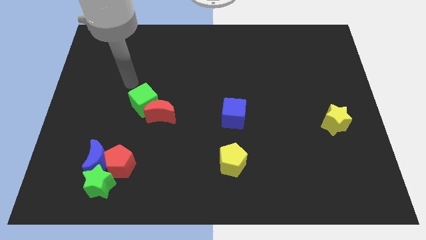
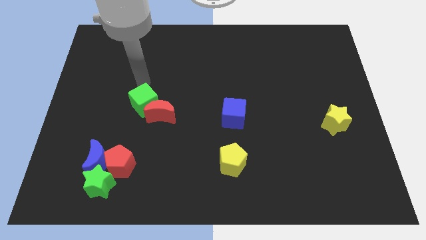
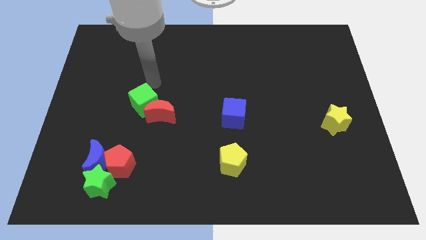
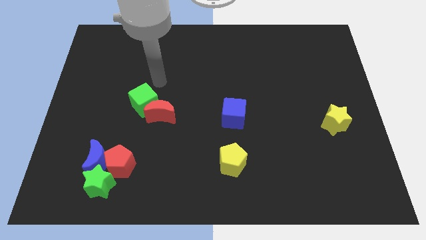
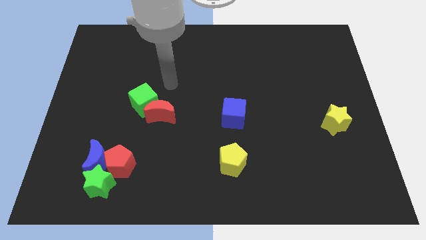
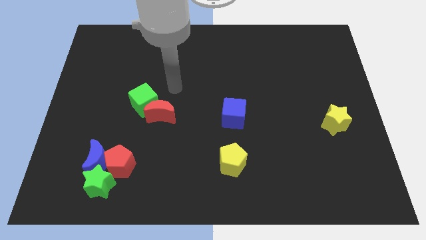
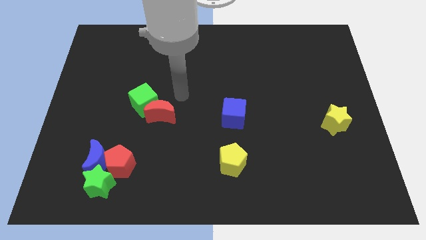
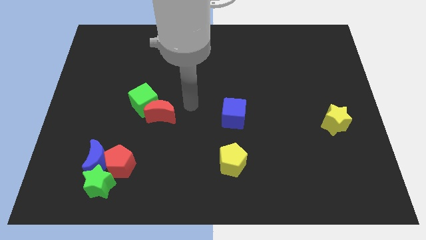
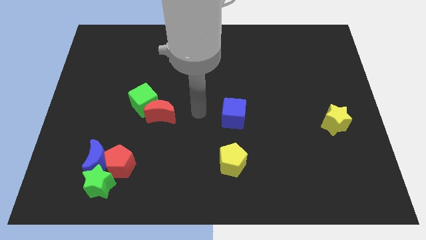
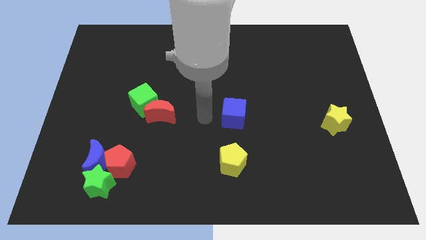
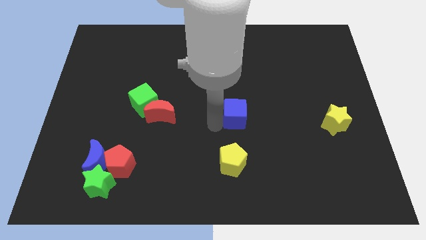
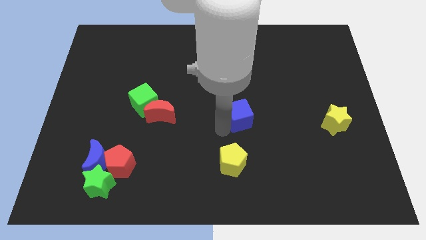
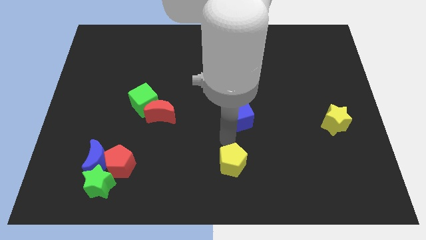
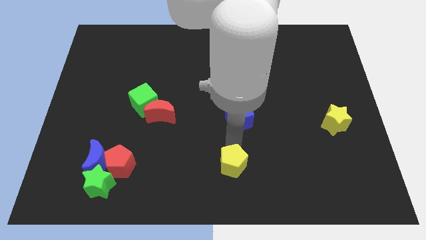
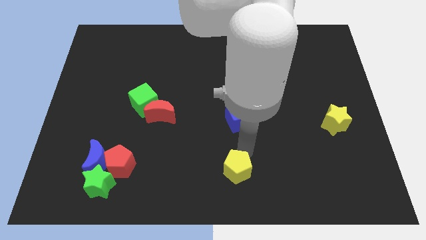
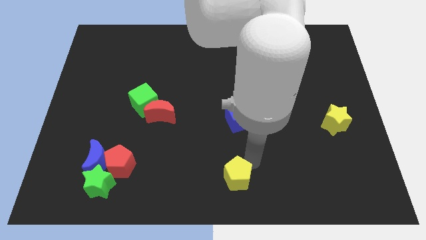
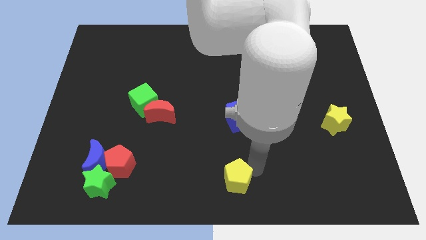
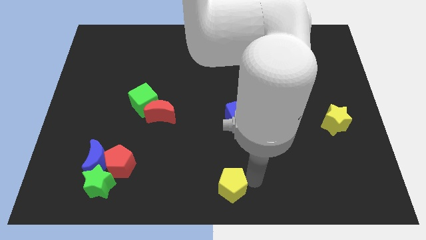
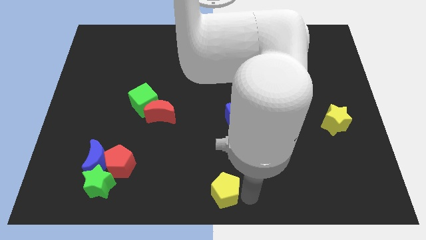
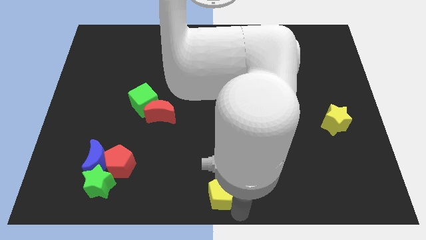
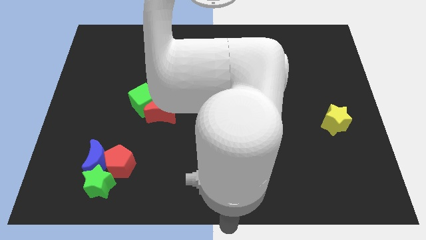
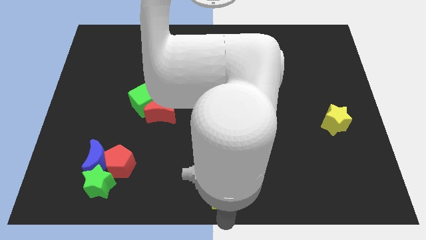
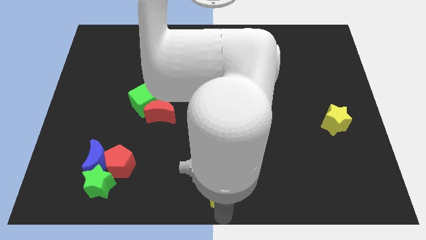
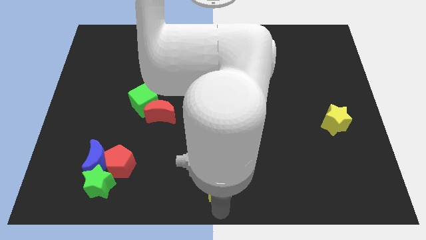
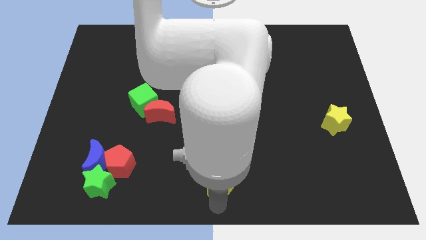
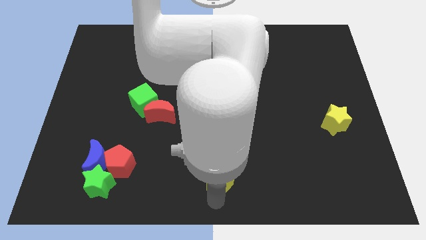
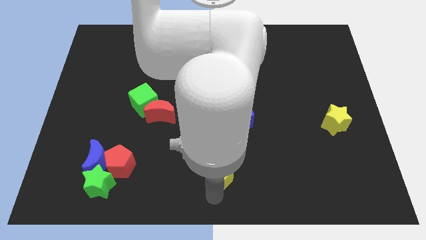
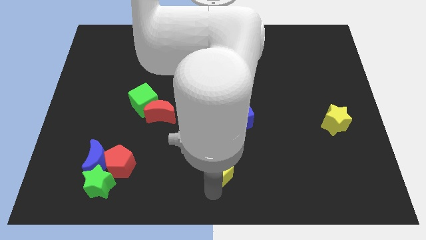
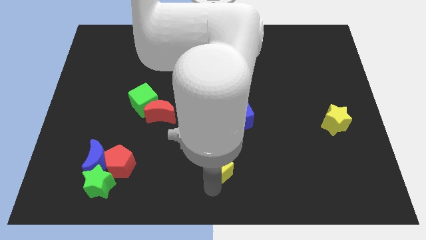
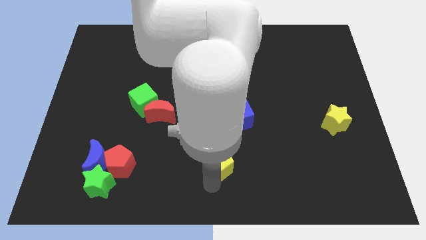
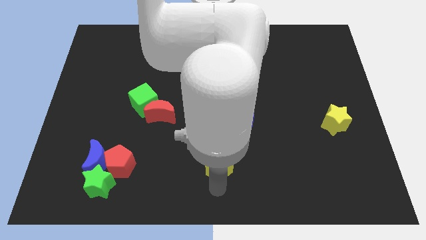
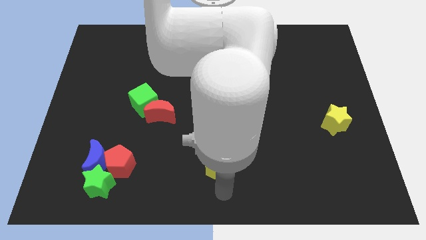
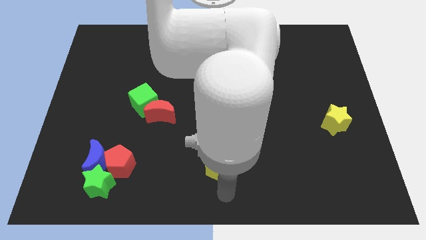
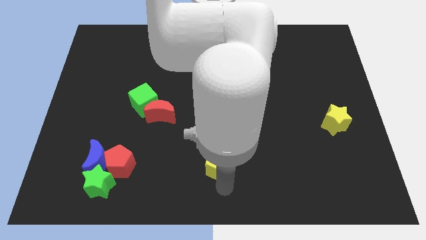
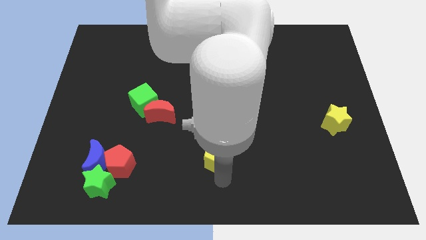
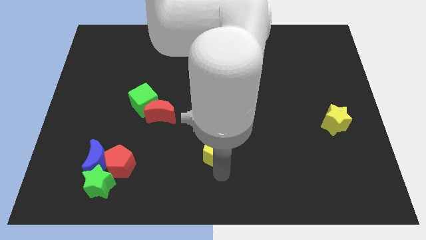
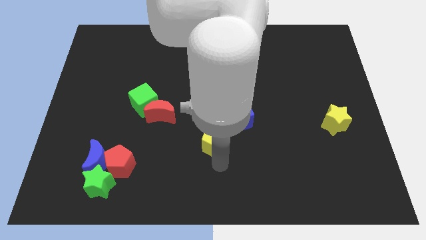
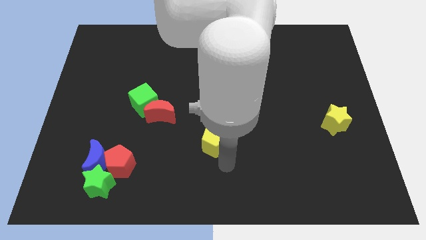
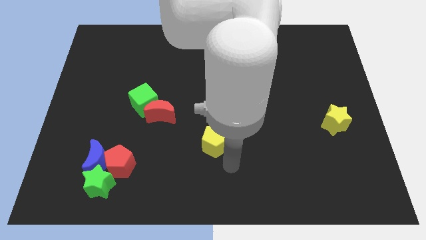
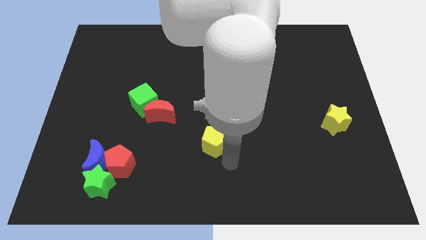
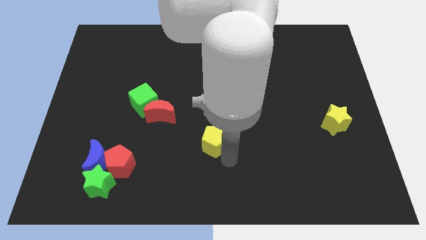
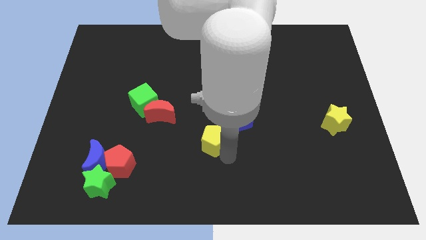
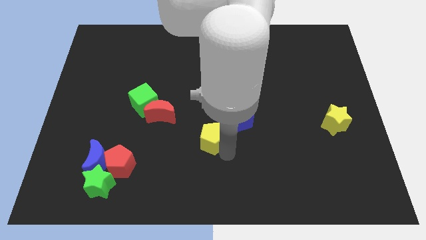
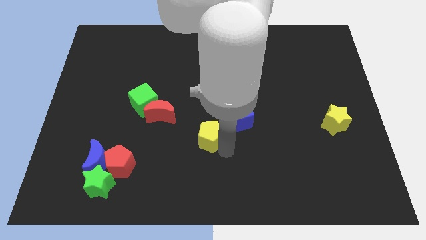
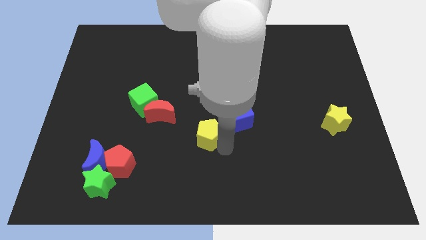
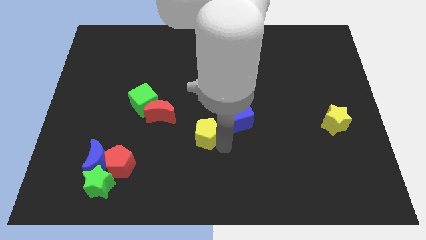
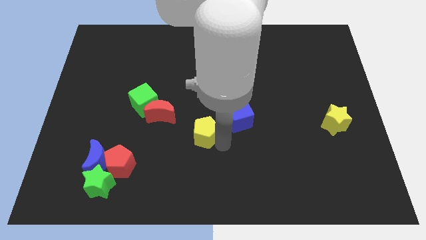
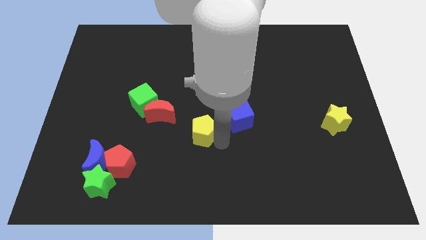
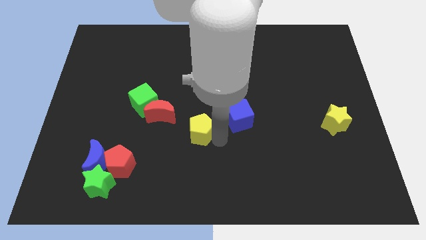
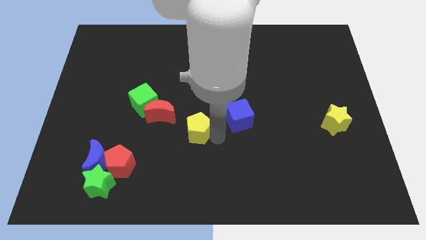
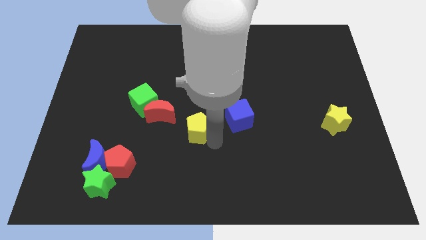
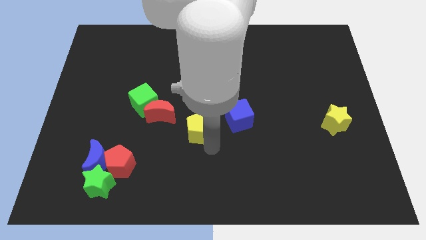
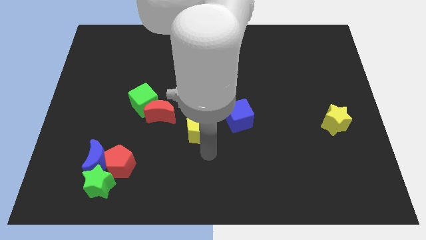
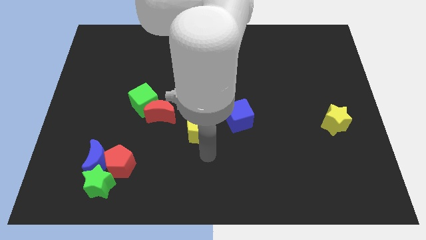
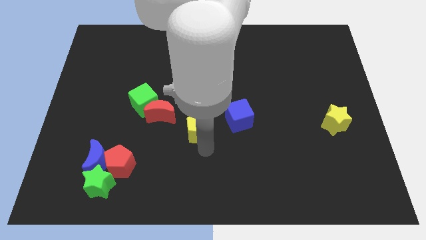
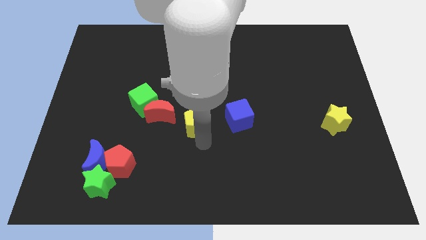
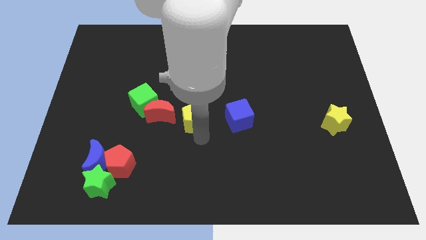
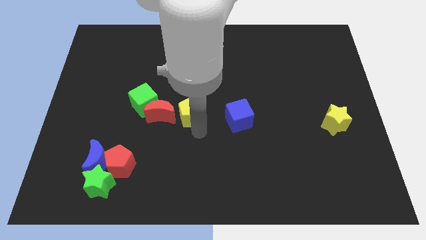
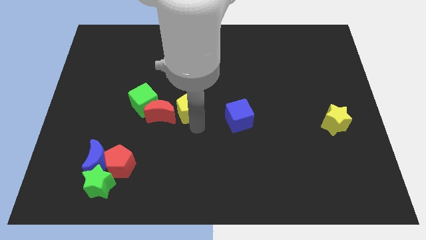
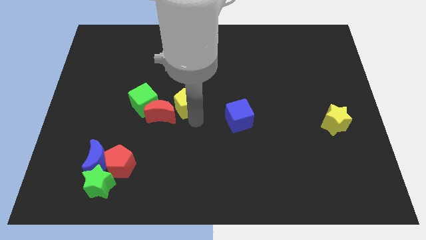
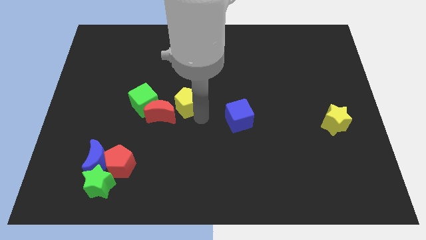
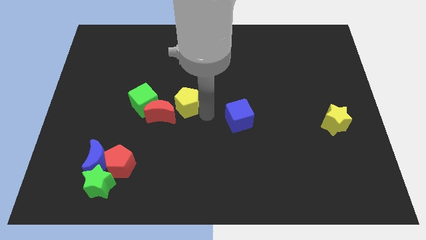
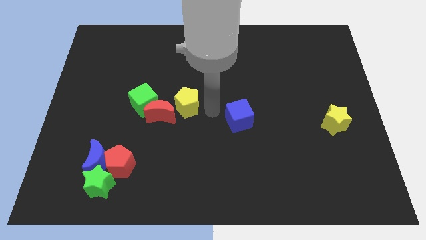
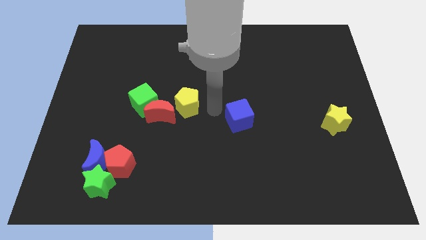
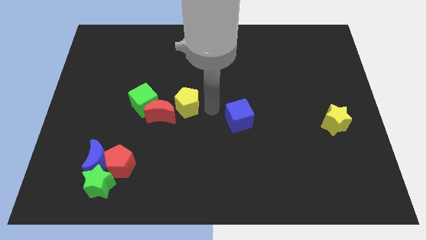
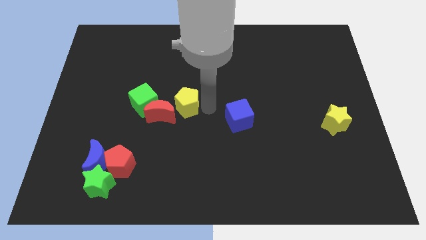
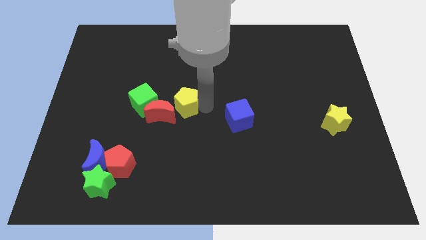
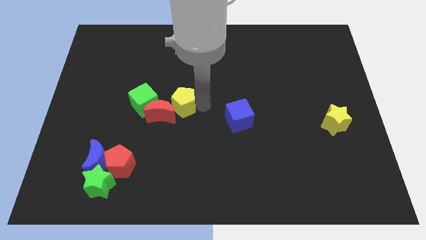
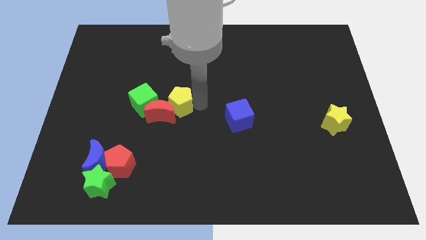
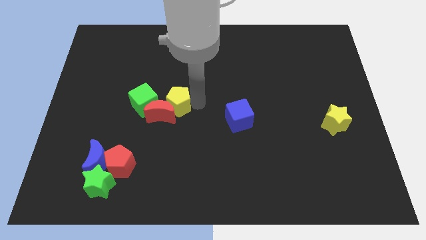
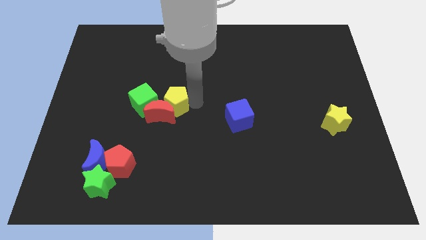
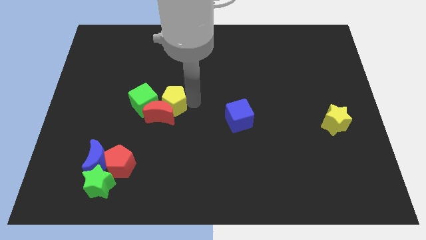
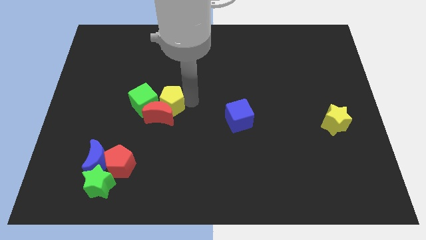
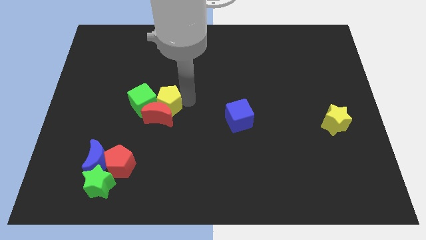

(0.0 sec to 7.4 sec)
put the yellow pentagon next to the green cube
